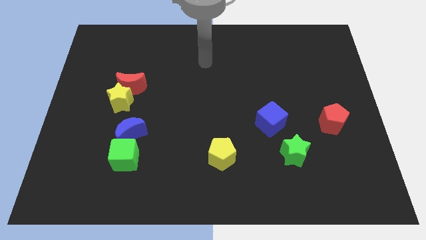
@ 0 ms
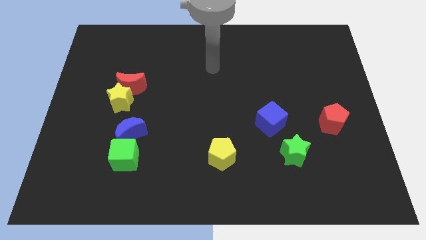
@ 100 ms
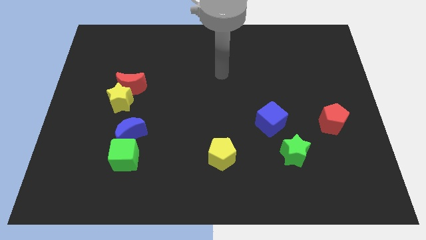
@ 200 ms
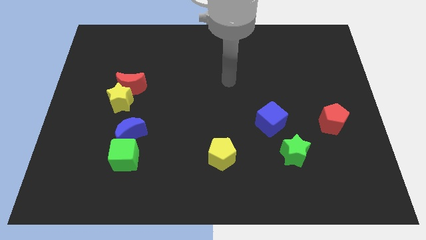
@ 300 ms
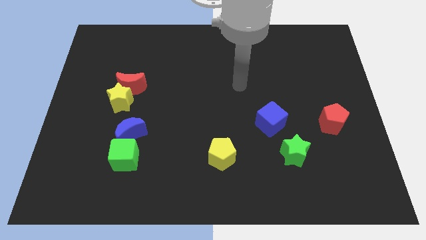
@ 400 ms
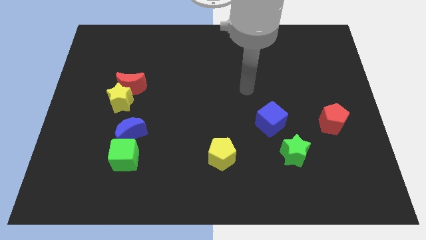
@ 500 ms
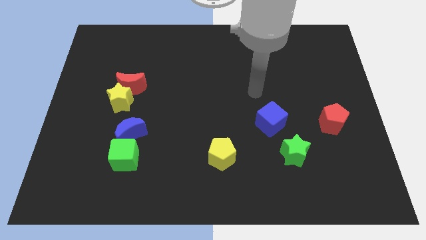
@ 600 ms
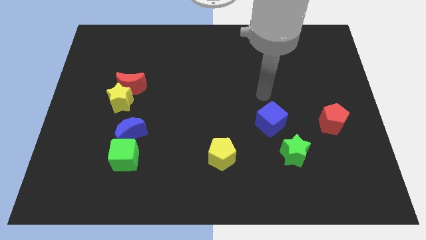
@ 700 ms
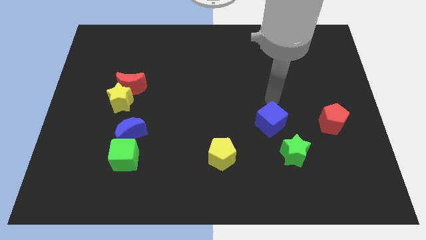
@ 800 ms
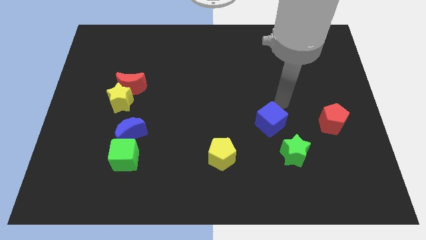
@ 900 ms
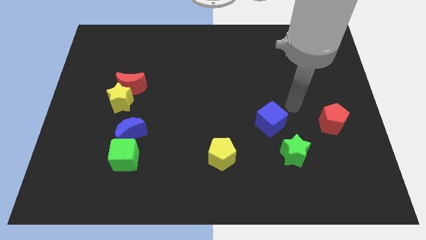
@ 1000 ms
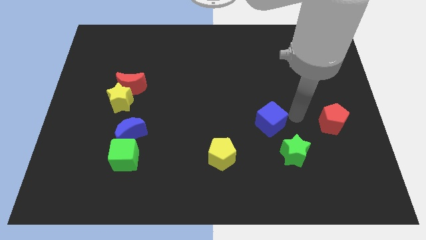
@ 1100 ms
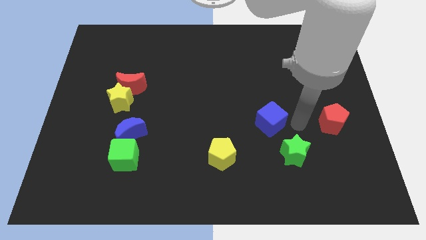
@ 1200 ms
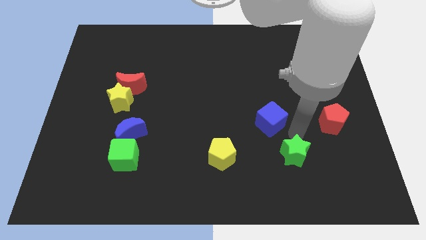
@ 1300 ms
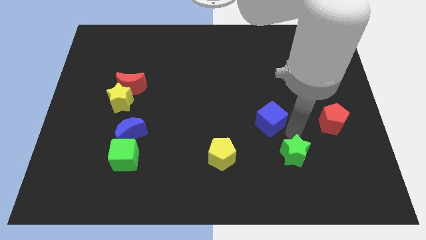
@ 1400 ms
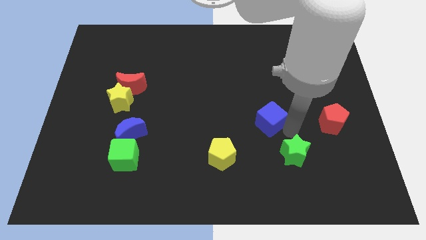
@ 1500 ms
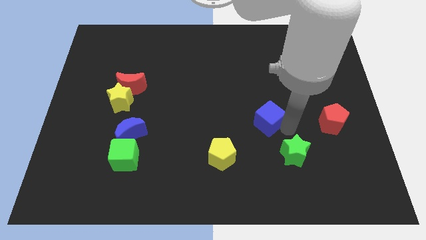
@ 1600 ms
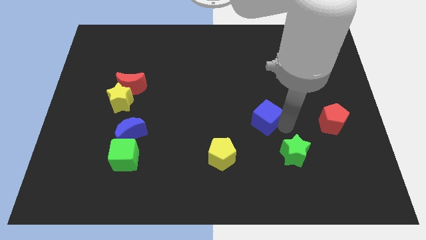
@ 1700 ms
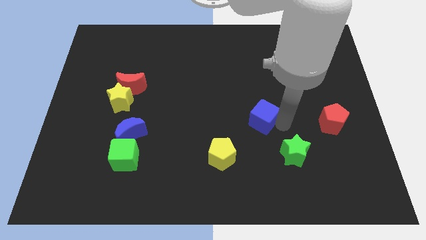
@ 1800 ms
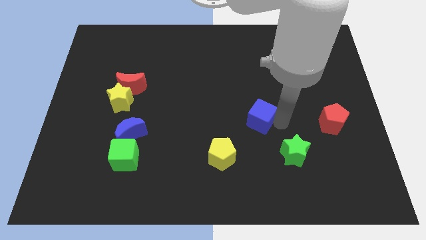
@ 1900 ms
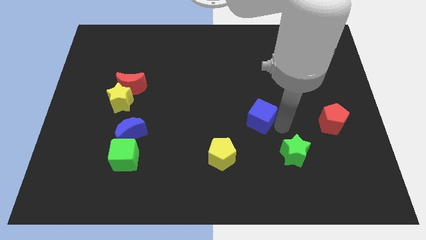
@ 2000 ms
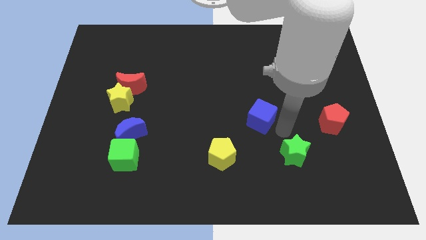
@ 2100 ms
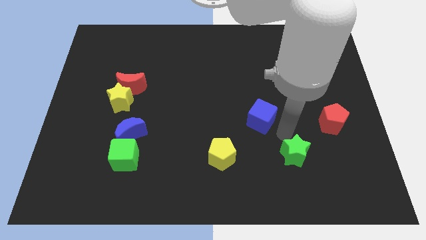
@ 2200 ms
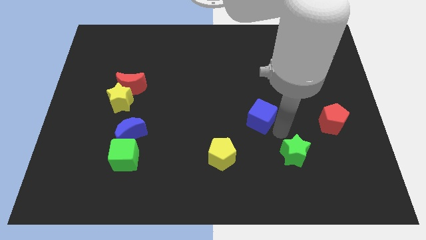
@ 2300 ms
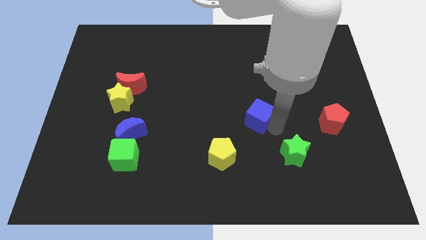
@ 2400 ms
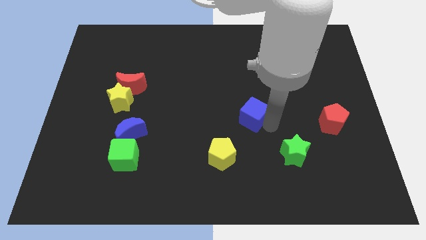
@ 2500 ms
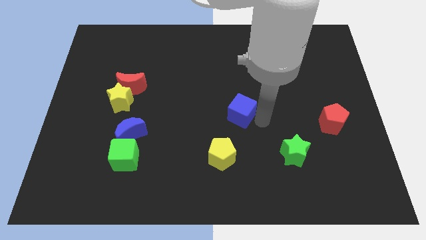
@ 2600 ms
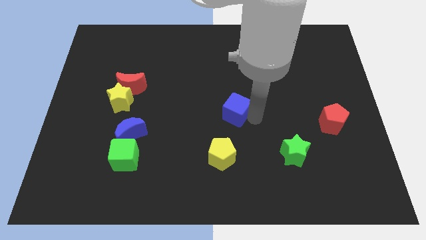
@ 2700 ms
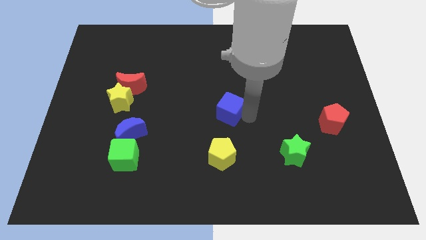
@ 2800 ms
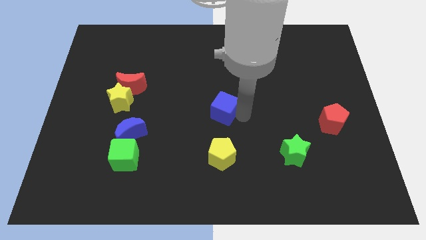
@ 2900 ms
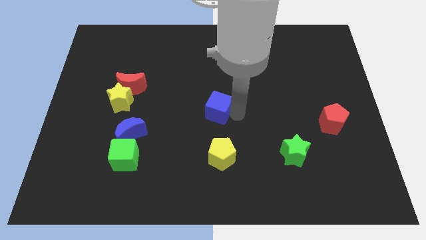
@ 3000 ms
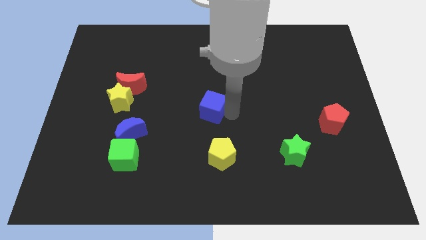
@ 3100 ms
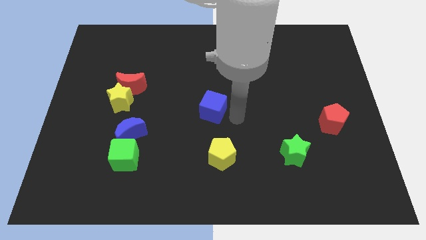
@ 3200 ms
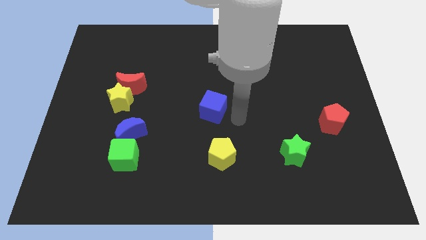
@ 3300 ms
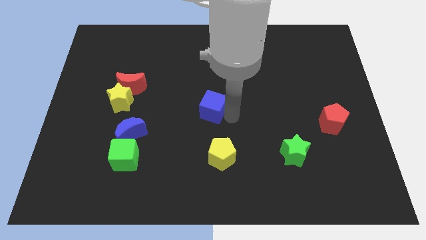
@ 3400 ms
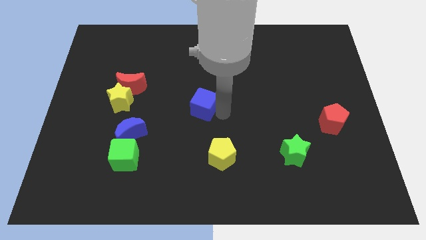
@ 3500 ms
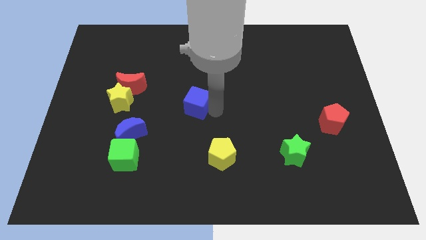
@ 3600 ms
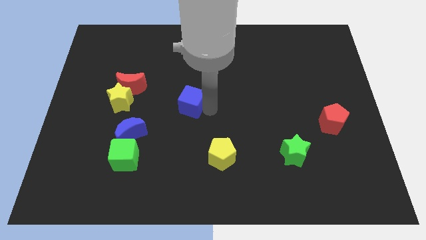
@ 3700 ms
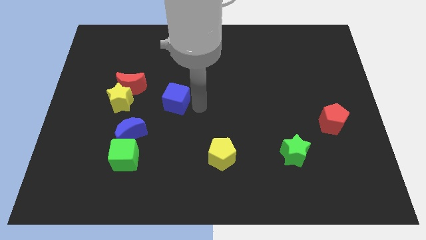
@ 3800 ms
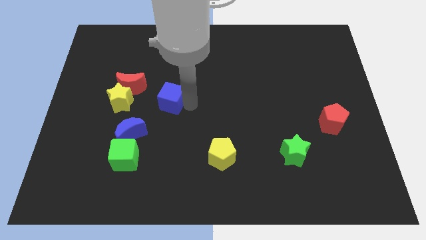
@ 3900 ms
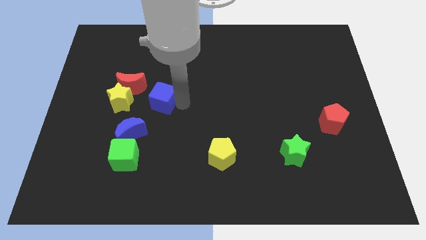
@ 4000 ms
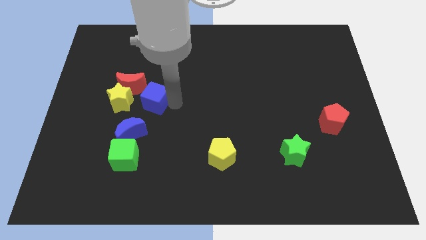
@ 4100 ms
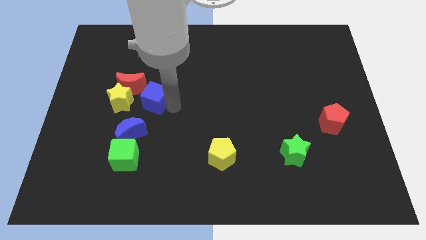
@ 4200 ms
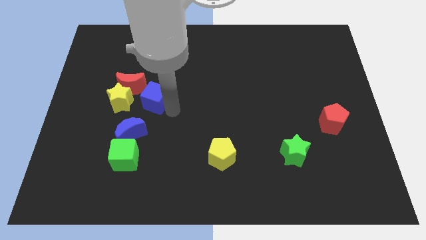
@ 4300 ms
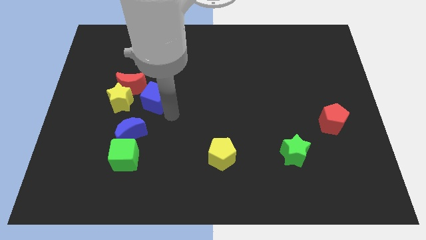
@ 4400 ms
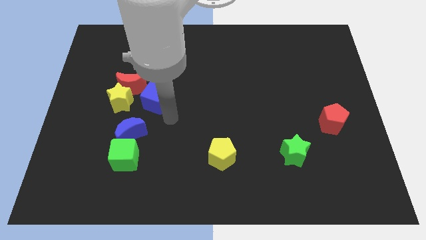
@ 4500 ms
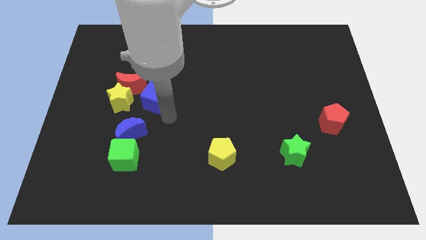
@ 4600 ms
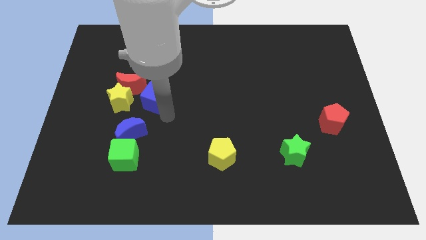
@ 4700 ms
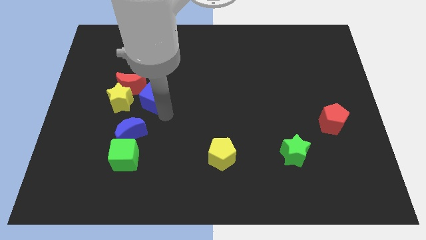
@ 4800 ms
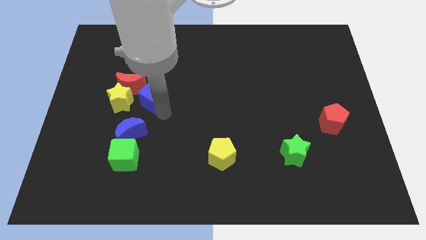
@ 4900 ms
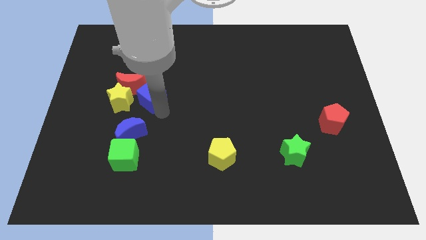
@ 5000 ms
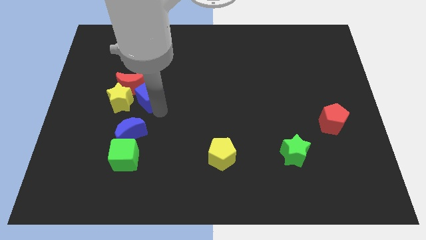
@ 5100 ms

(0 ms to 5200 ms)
put the blue cube next to the red moon

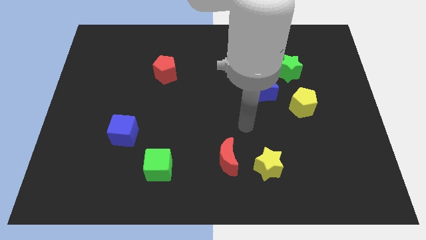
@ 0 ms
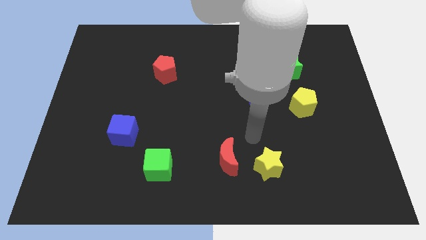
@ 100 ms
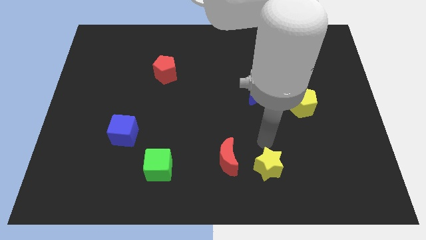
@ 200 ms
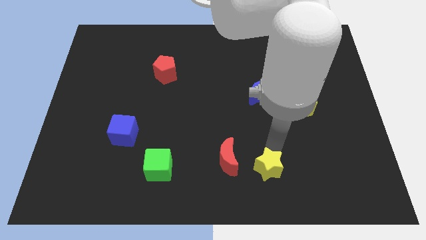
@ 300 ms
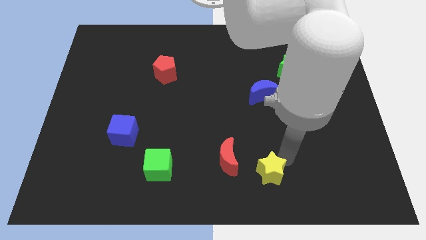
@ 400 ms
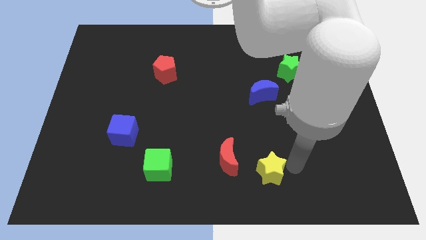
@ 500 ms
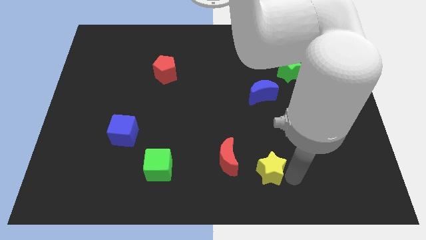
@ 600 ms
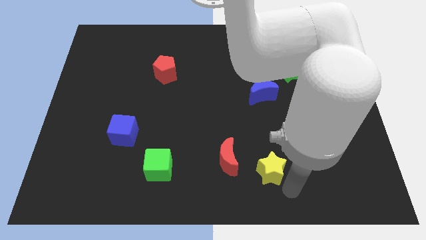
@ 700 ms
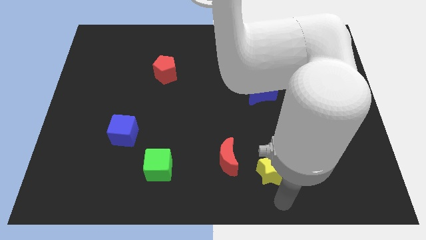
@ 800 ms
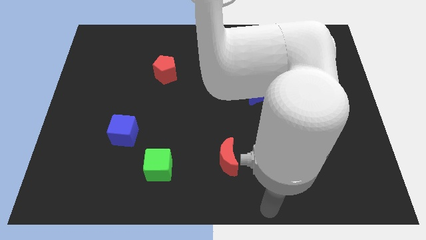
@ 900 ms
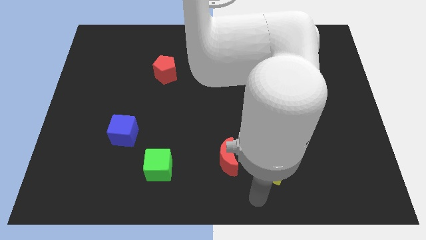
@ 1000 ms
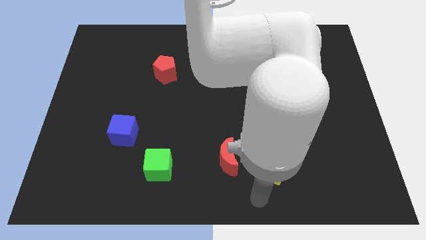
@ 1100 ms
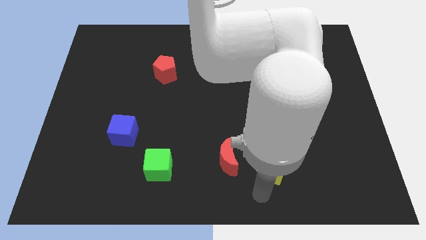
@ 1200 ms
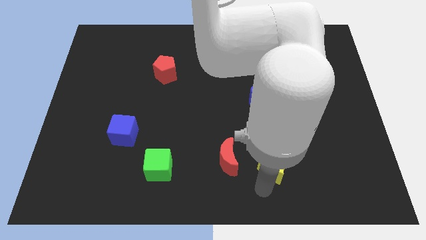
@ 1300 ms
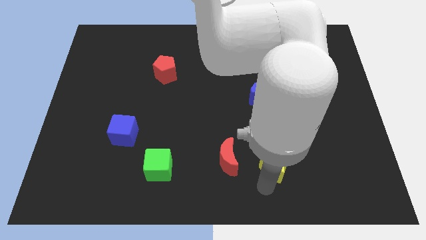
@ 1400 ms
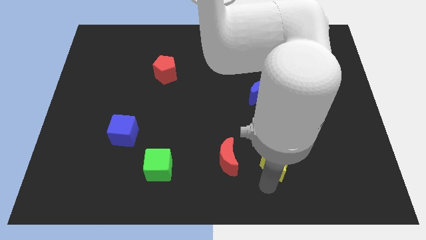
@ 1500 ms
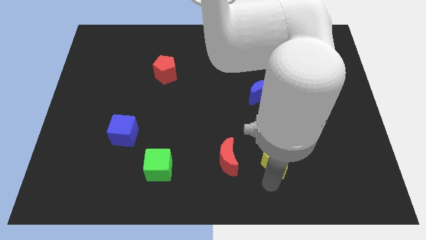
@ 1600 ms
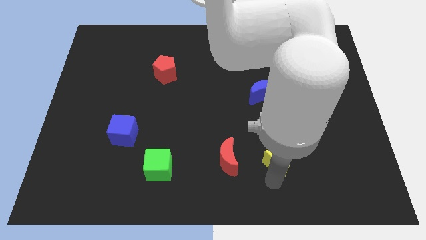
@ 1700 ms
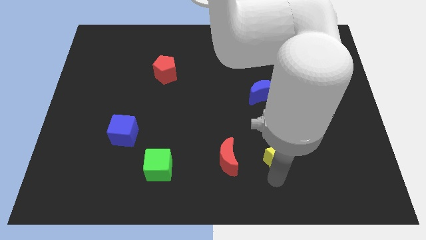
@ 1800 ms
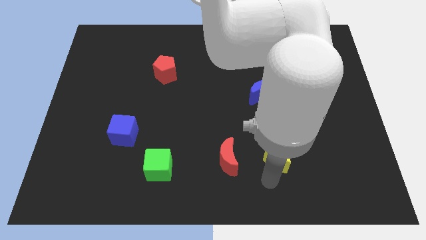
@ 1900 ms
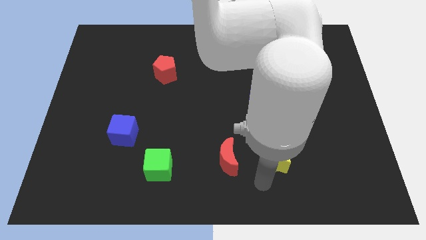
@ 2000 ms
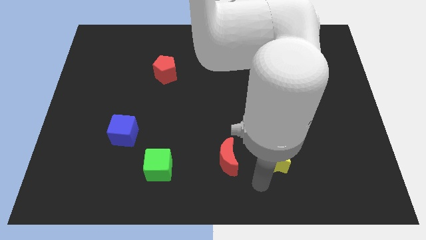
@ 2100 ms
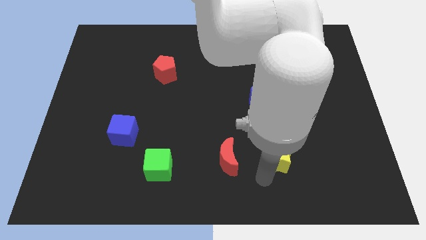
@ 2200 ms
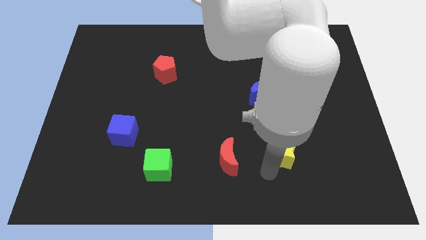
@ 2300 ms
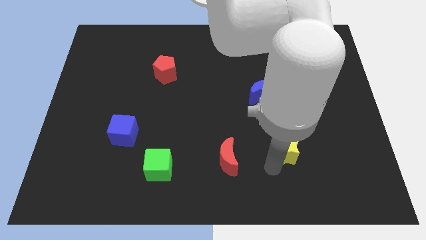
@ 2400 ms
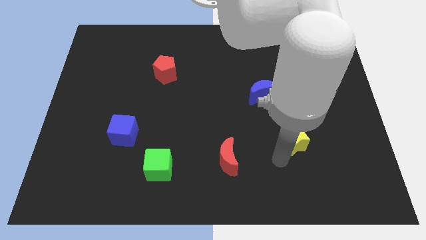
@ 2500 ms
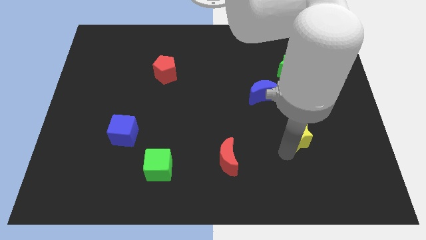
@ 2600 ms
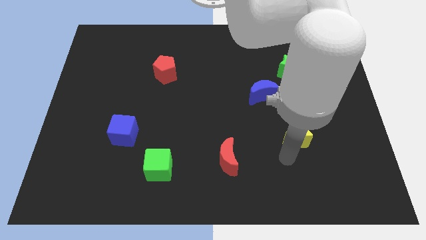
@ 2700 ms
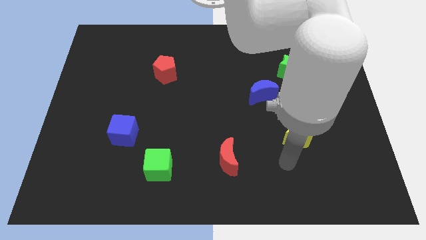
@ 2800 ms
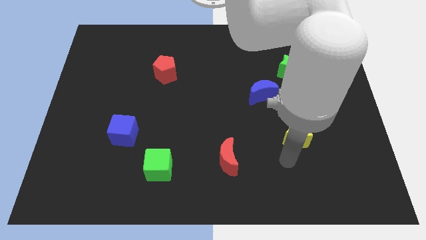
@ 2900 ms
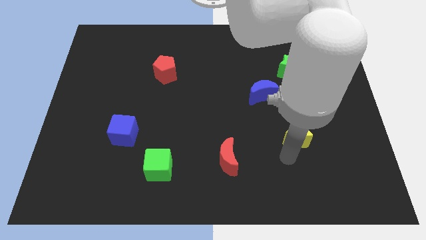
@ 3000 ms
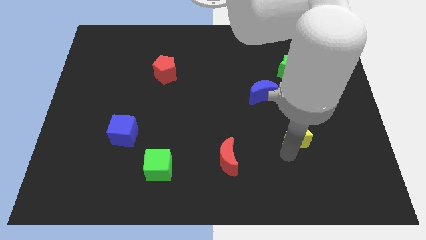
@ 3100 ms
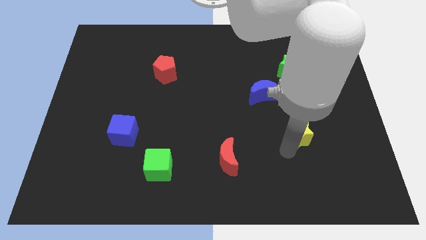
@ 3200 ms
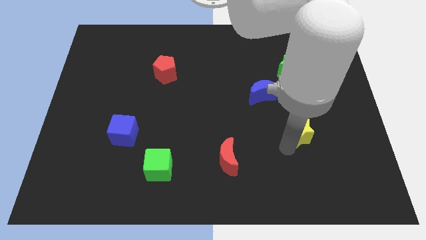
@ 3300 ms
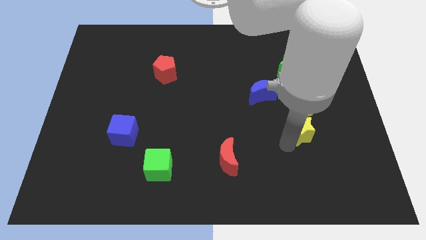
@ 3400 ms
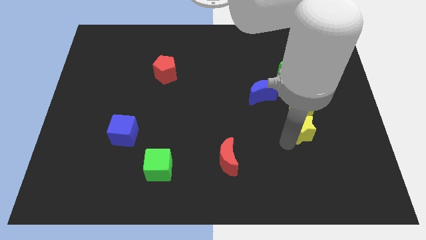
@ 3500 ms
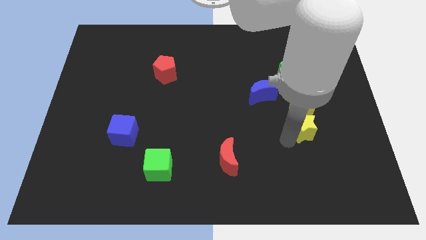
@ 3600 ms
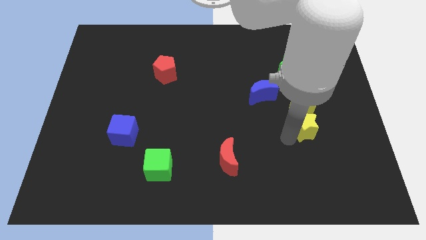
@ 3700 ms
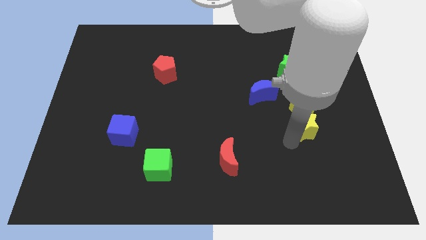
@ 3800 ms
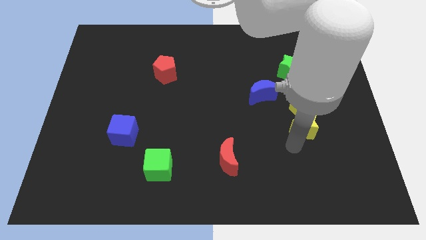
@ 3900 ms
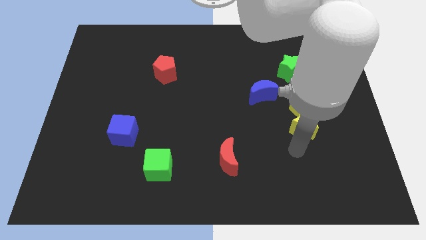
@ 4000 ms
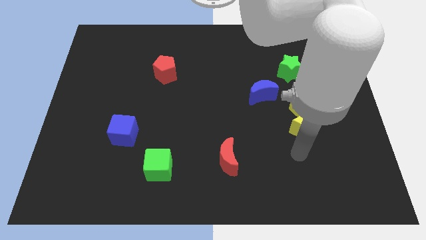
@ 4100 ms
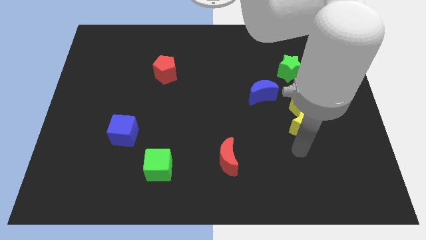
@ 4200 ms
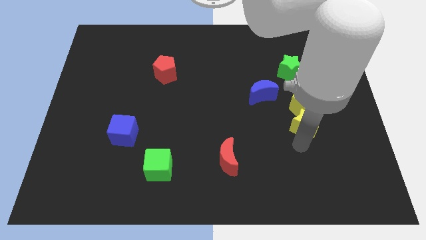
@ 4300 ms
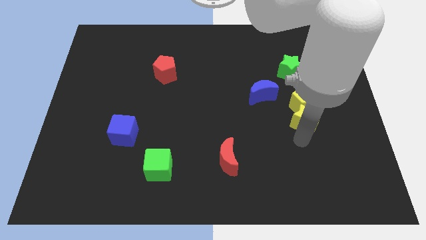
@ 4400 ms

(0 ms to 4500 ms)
push the yellow star towards the yellow pentagon
